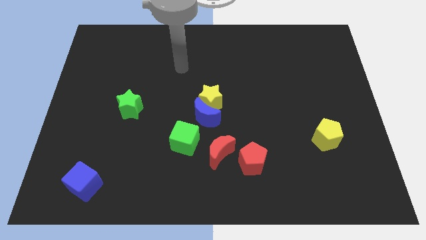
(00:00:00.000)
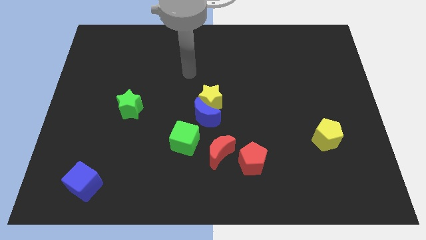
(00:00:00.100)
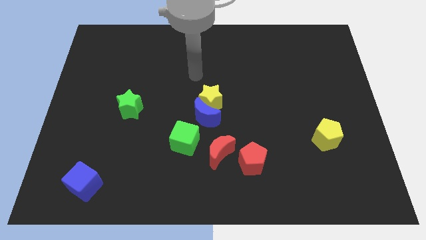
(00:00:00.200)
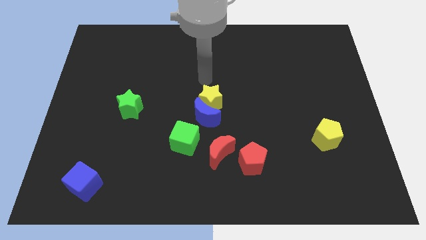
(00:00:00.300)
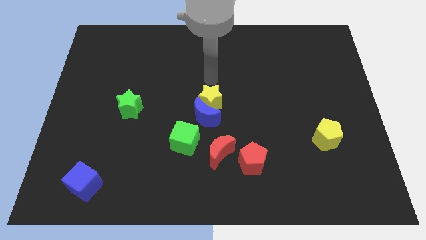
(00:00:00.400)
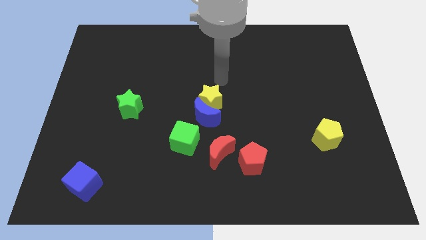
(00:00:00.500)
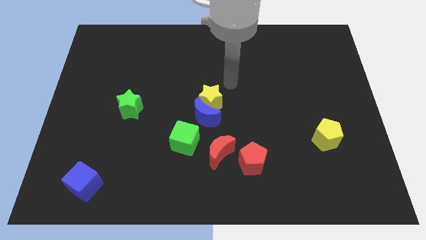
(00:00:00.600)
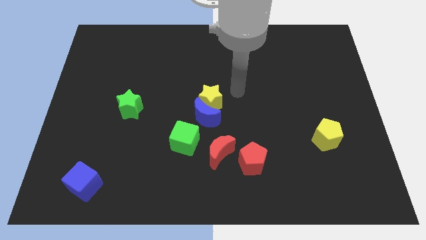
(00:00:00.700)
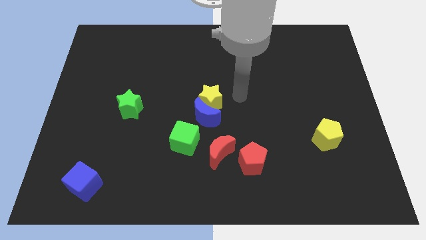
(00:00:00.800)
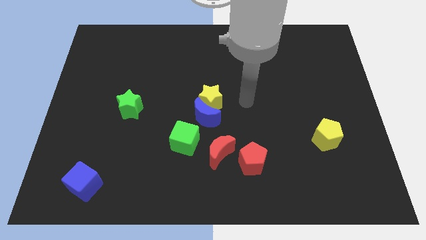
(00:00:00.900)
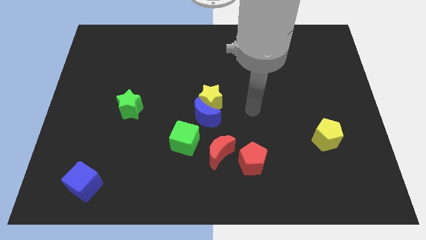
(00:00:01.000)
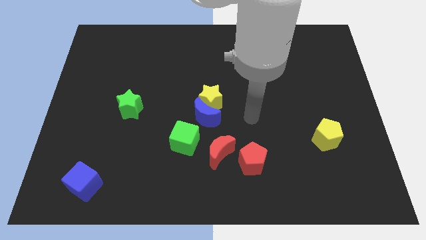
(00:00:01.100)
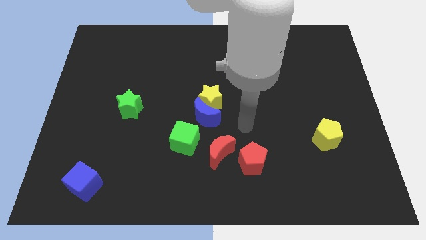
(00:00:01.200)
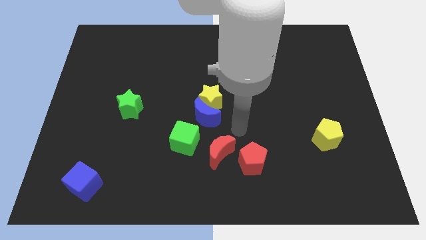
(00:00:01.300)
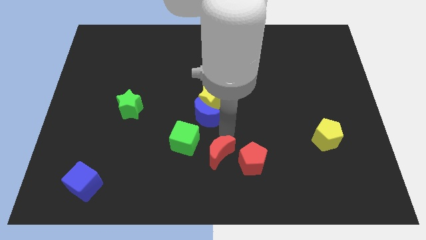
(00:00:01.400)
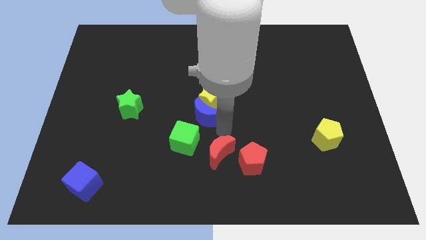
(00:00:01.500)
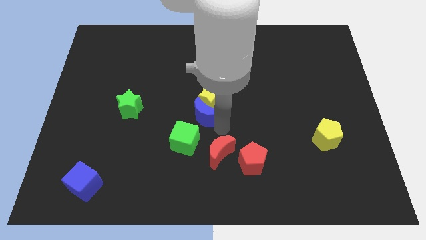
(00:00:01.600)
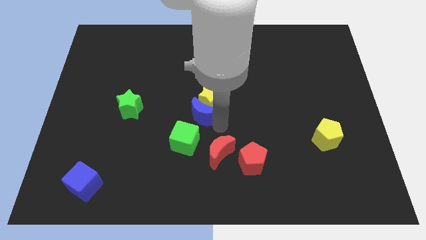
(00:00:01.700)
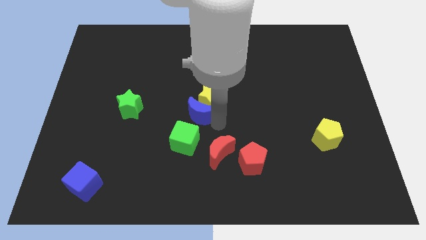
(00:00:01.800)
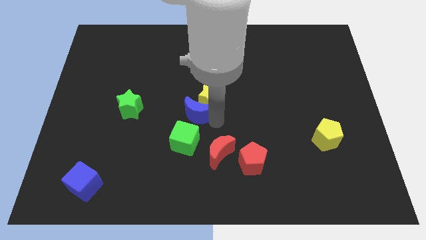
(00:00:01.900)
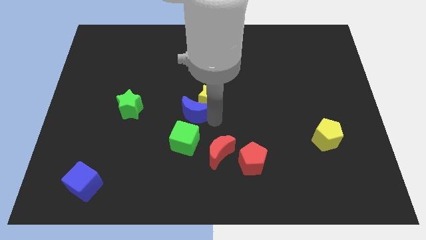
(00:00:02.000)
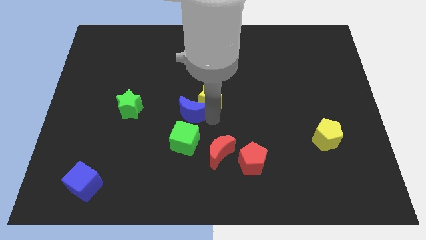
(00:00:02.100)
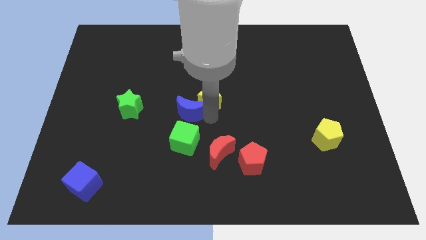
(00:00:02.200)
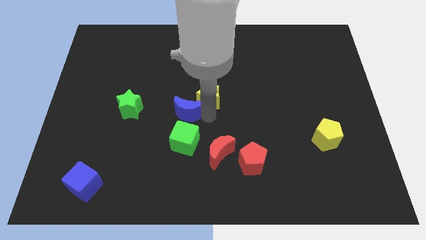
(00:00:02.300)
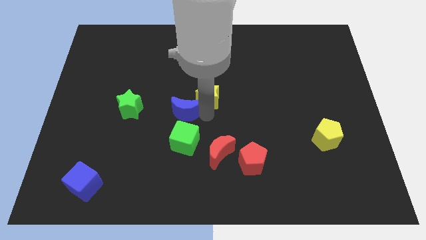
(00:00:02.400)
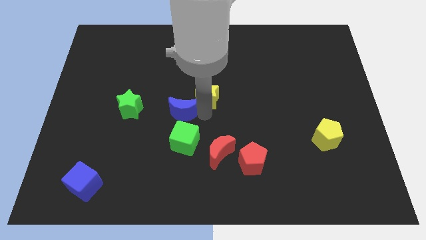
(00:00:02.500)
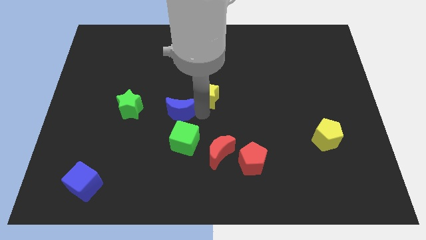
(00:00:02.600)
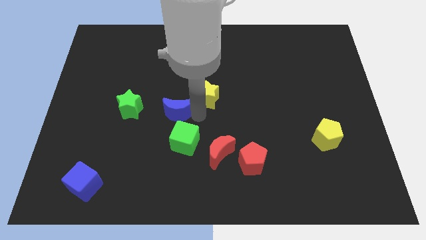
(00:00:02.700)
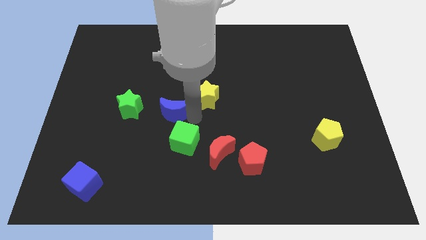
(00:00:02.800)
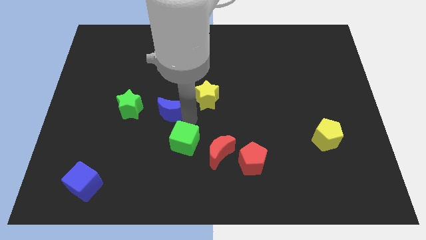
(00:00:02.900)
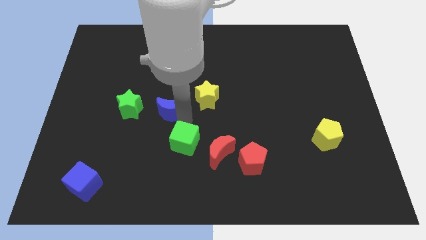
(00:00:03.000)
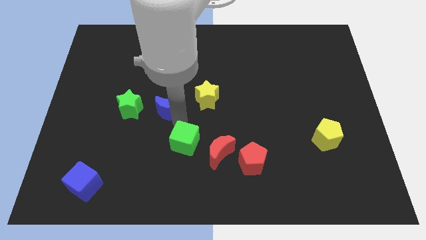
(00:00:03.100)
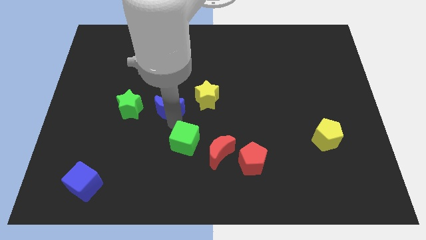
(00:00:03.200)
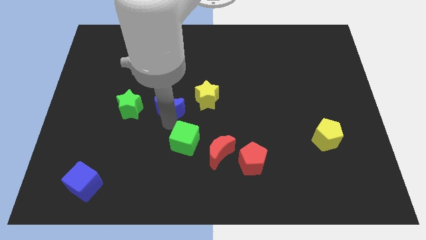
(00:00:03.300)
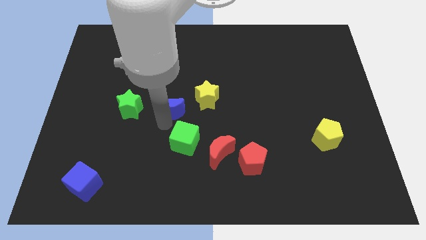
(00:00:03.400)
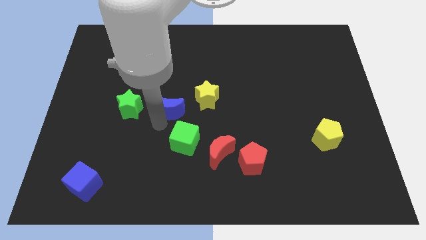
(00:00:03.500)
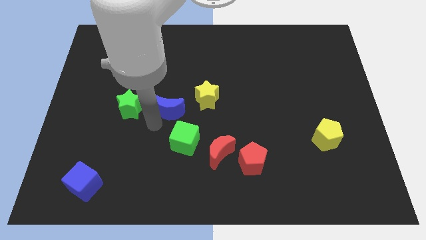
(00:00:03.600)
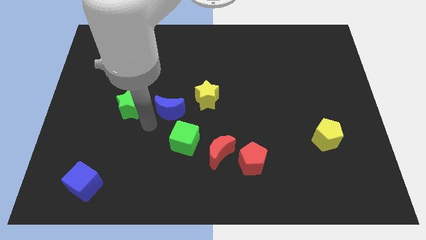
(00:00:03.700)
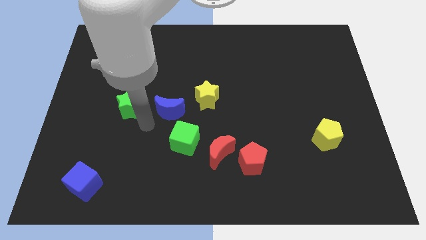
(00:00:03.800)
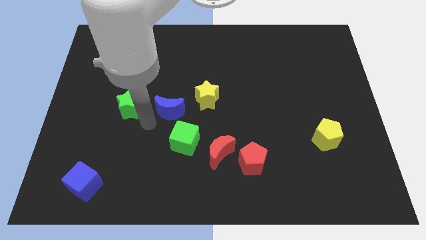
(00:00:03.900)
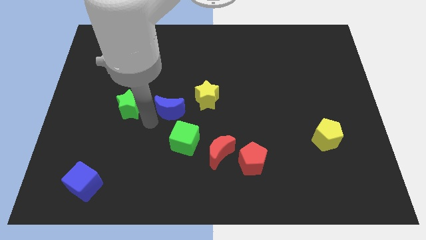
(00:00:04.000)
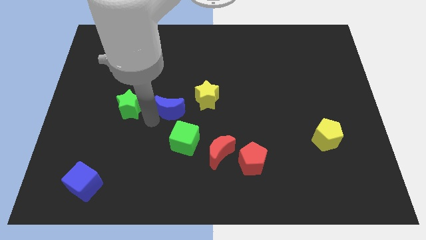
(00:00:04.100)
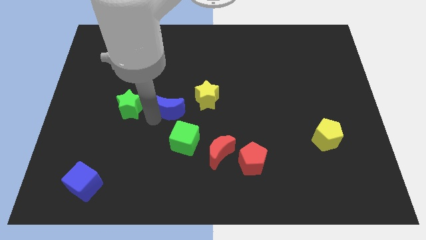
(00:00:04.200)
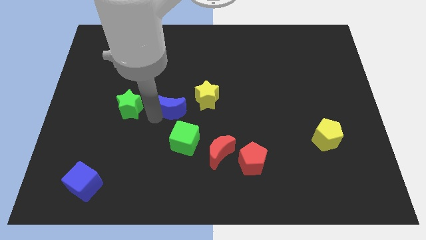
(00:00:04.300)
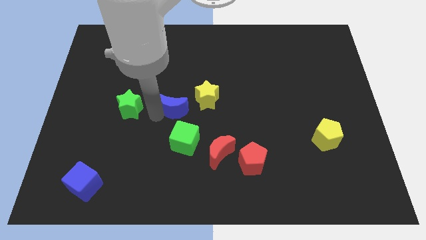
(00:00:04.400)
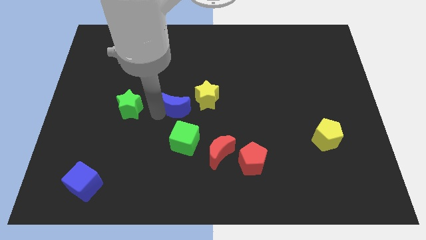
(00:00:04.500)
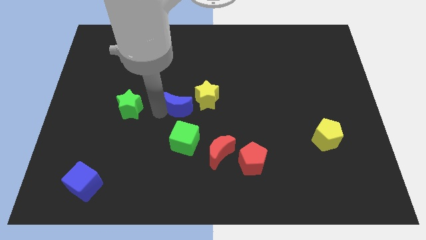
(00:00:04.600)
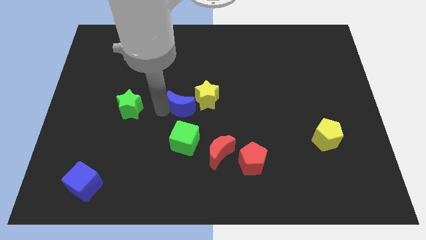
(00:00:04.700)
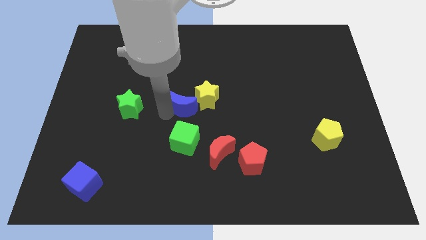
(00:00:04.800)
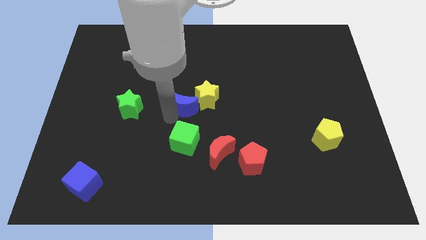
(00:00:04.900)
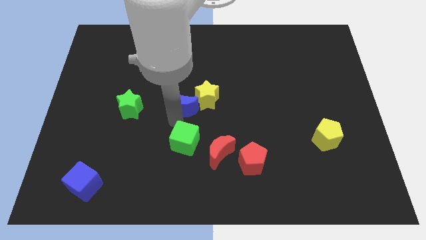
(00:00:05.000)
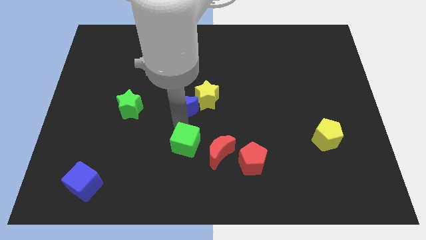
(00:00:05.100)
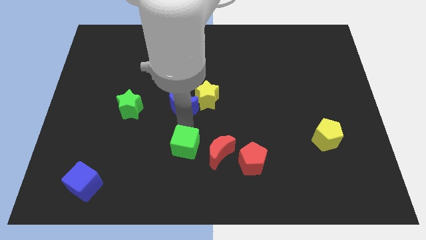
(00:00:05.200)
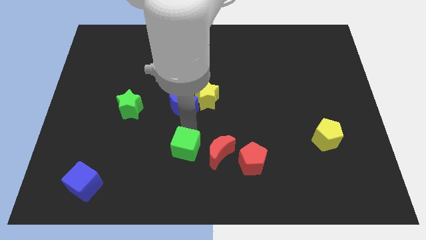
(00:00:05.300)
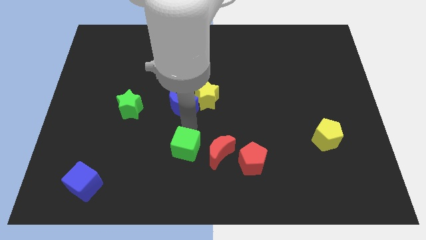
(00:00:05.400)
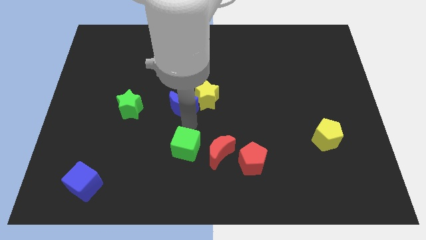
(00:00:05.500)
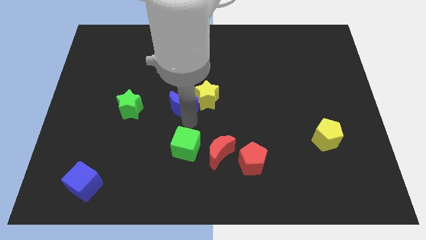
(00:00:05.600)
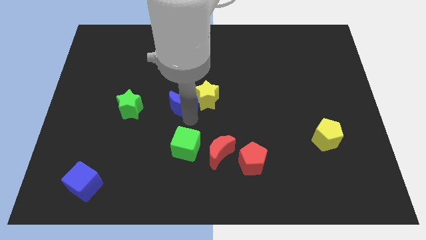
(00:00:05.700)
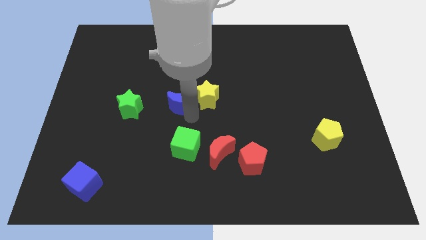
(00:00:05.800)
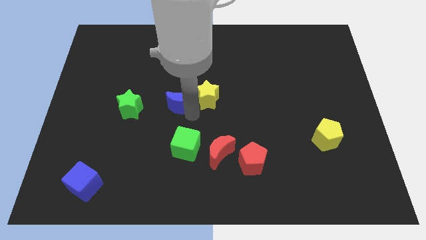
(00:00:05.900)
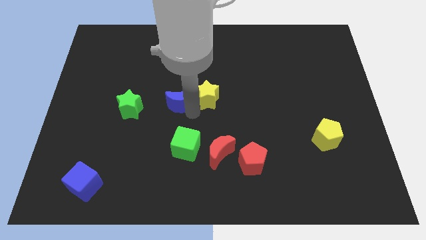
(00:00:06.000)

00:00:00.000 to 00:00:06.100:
push the blue moon upwards and to the left slightly

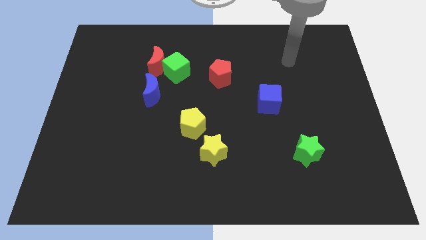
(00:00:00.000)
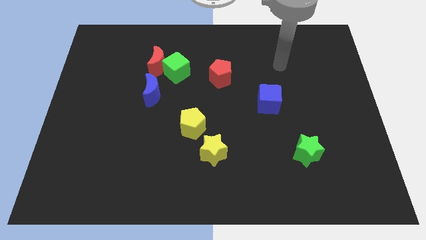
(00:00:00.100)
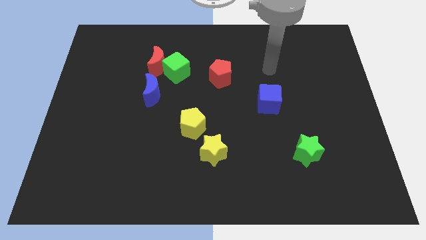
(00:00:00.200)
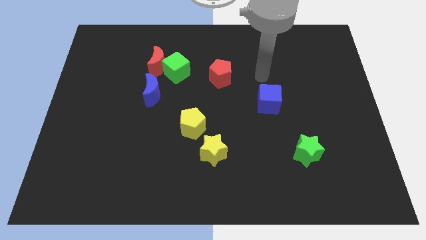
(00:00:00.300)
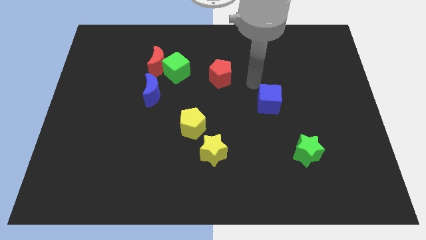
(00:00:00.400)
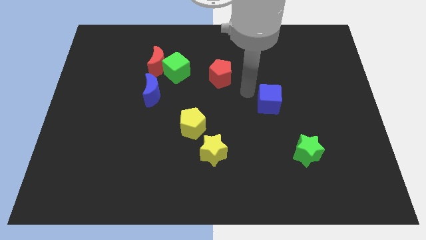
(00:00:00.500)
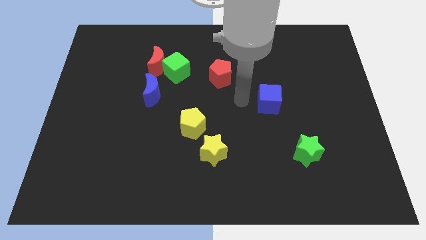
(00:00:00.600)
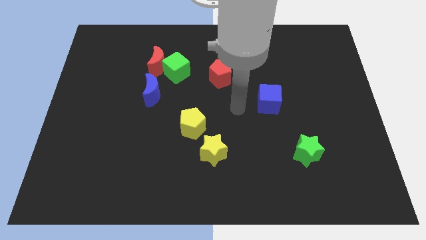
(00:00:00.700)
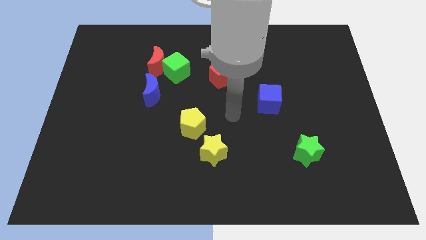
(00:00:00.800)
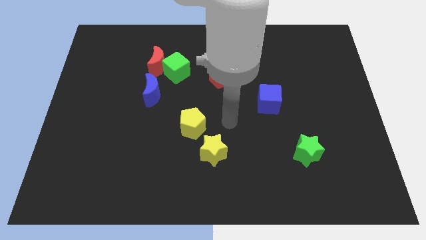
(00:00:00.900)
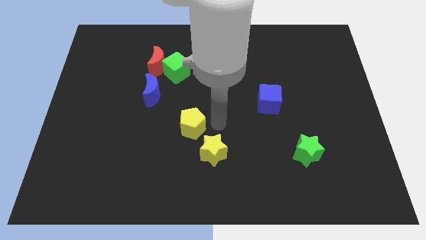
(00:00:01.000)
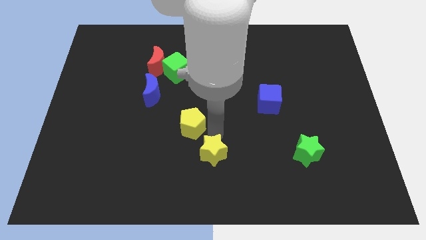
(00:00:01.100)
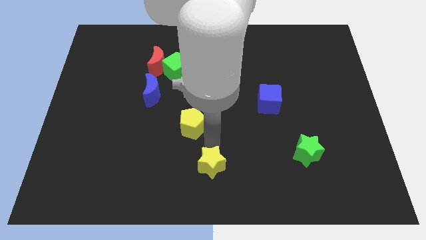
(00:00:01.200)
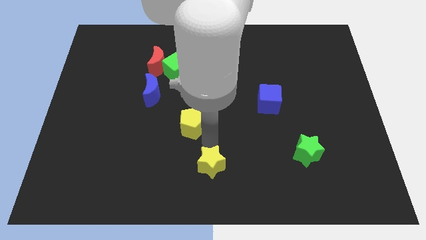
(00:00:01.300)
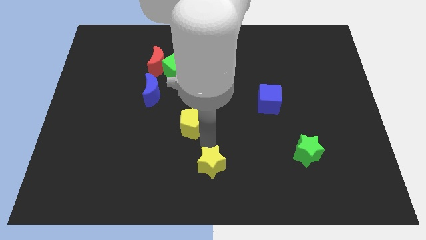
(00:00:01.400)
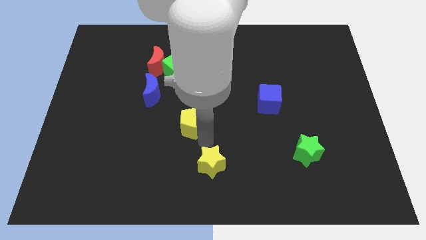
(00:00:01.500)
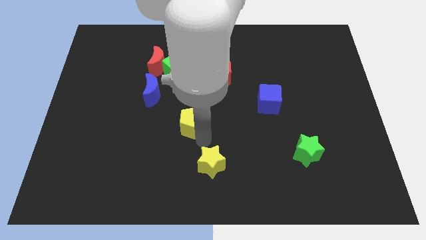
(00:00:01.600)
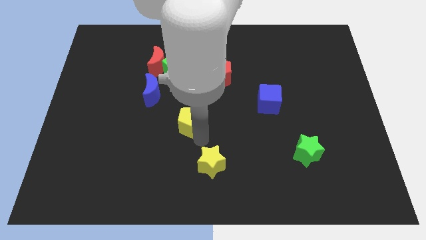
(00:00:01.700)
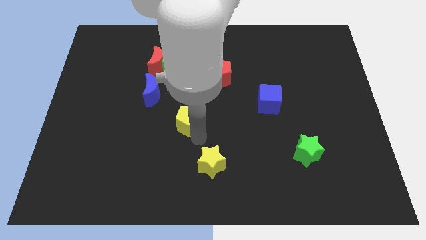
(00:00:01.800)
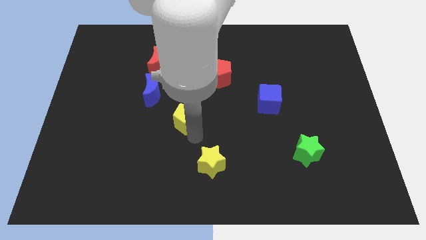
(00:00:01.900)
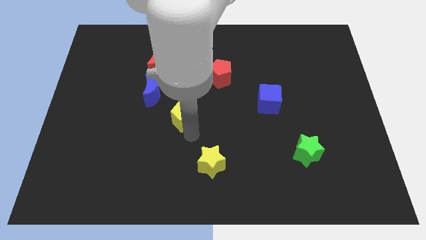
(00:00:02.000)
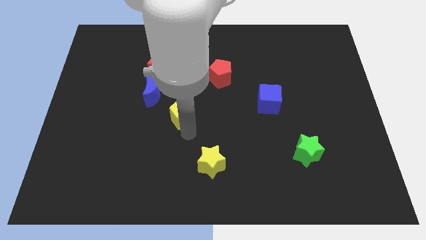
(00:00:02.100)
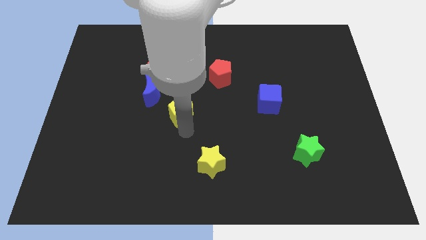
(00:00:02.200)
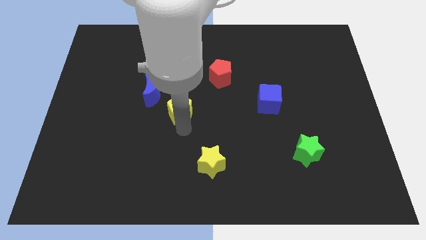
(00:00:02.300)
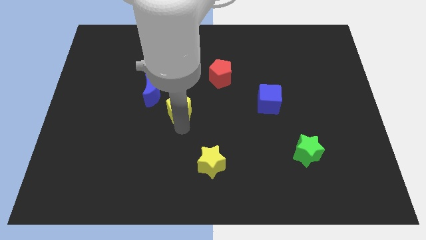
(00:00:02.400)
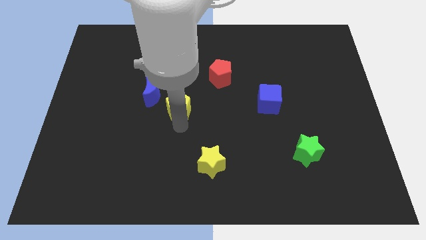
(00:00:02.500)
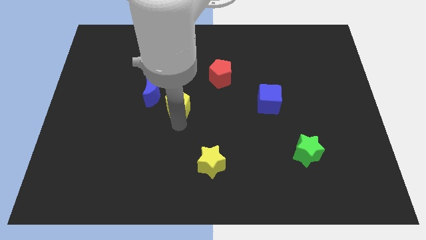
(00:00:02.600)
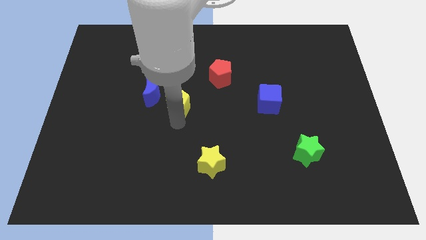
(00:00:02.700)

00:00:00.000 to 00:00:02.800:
push the yellow pentagon upwards and left slightly
